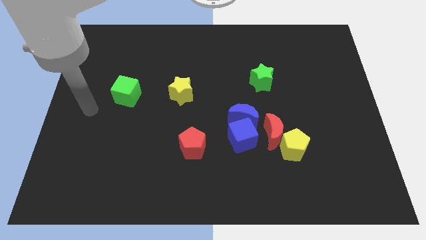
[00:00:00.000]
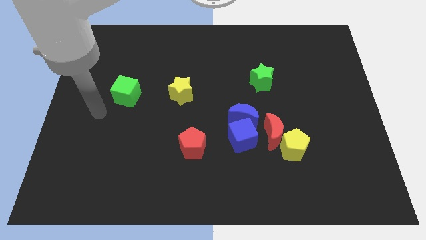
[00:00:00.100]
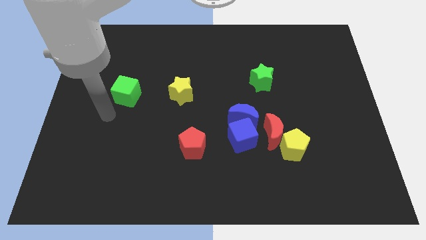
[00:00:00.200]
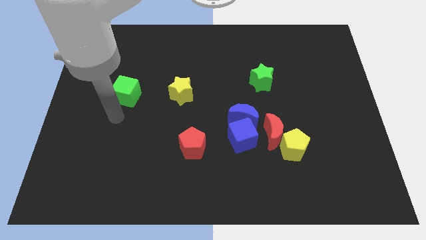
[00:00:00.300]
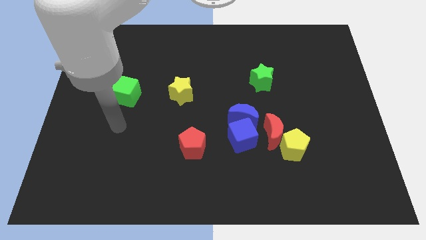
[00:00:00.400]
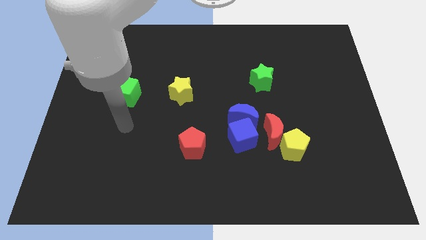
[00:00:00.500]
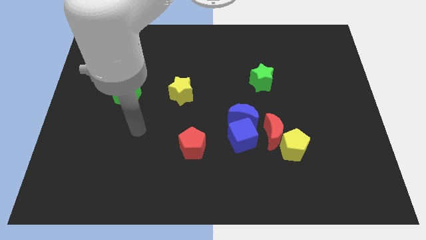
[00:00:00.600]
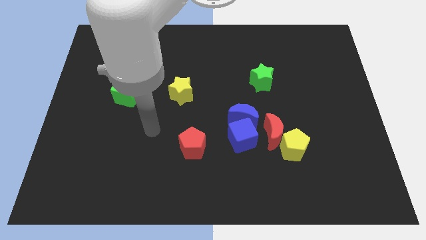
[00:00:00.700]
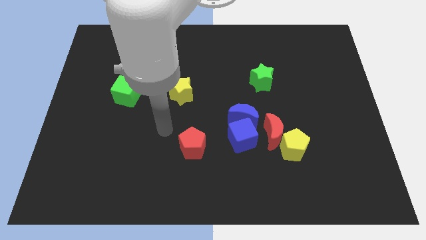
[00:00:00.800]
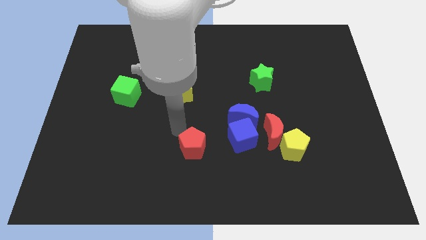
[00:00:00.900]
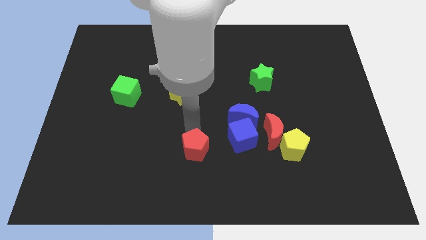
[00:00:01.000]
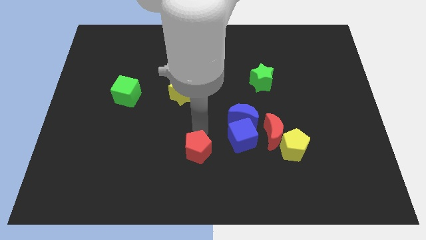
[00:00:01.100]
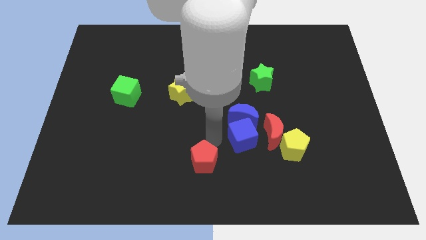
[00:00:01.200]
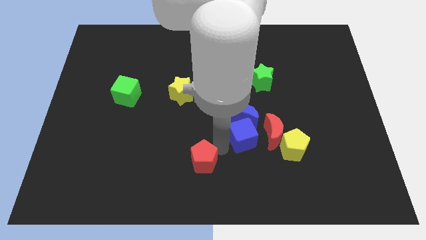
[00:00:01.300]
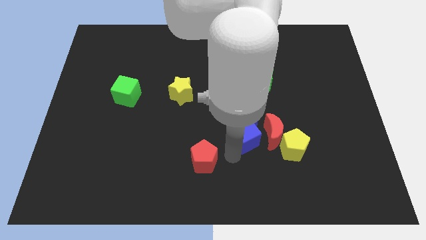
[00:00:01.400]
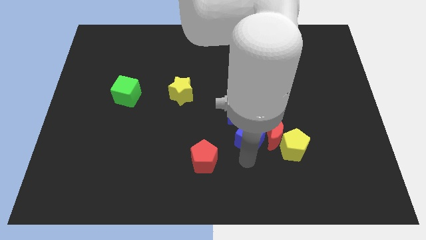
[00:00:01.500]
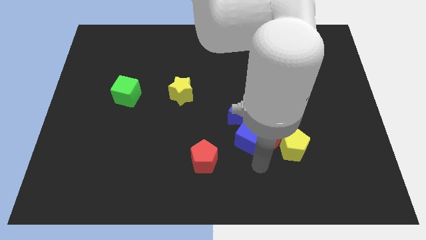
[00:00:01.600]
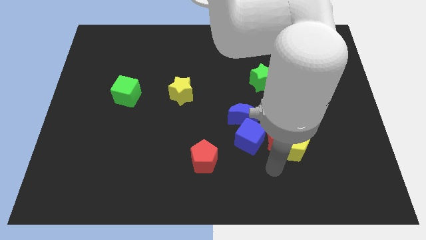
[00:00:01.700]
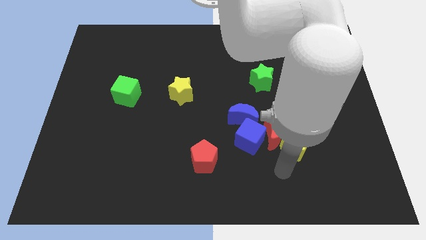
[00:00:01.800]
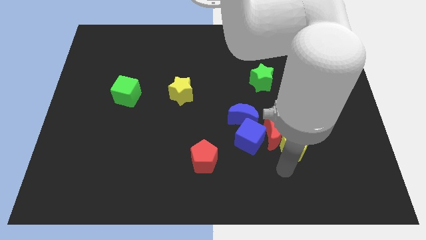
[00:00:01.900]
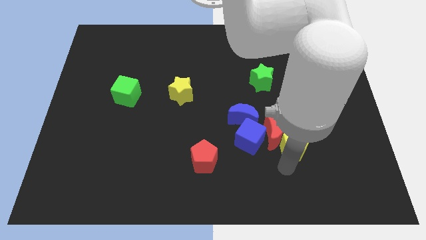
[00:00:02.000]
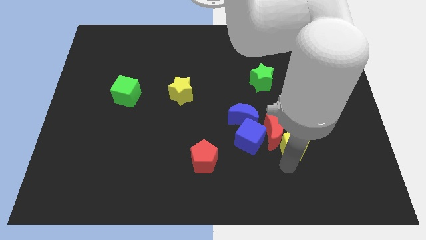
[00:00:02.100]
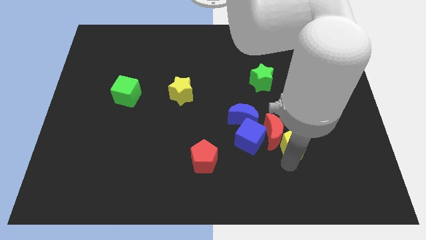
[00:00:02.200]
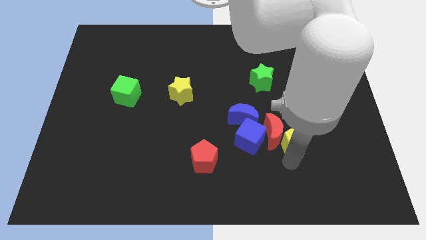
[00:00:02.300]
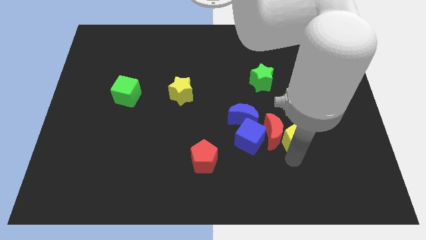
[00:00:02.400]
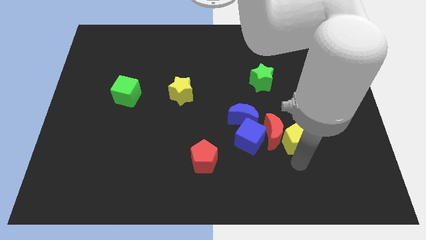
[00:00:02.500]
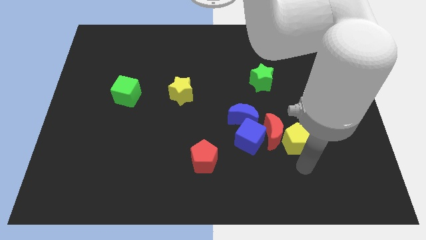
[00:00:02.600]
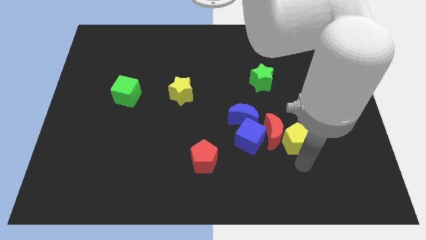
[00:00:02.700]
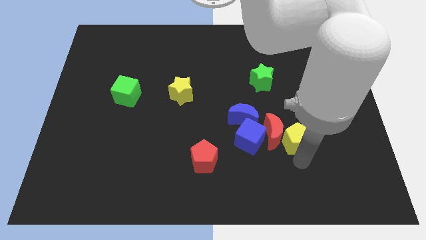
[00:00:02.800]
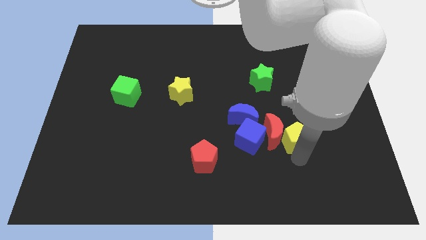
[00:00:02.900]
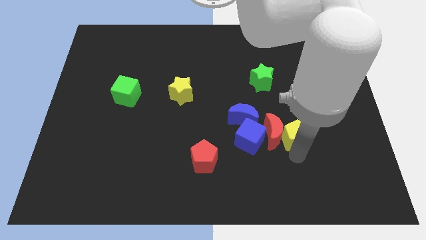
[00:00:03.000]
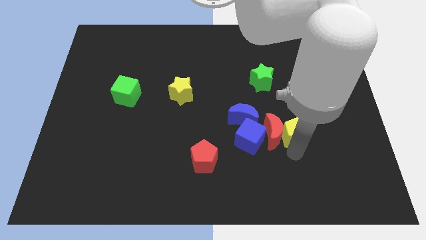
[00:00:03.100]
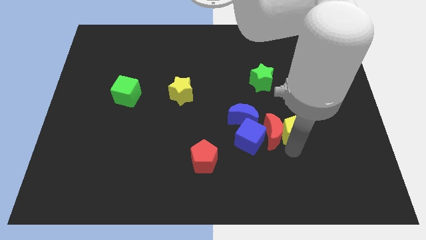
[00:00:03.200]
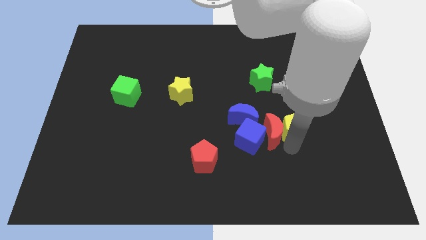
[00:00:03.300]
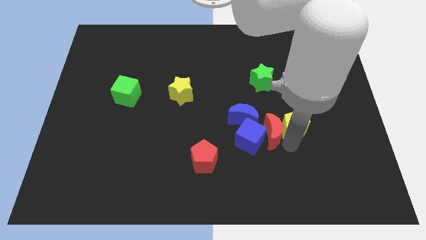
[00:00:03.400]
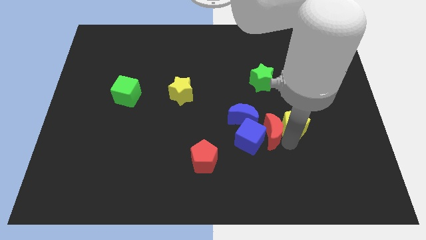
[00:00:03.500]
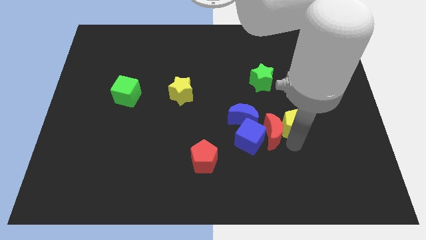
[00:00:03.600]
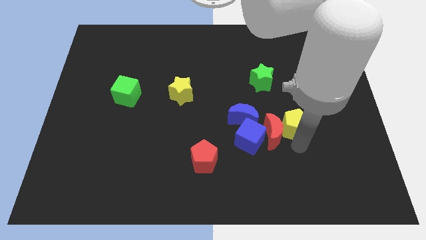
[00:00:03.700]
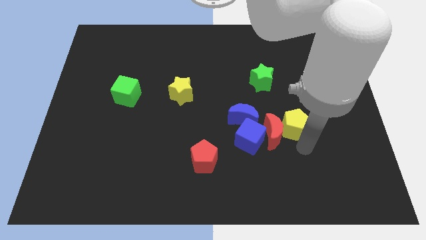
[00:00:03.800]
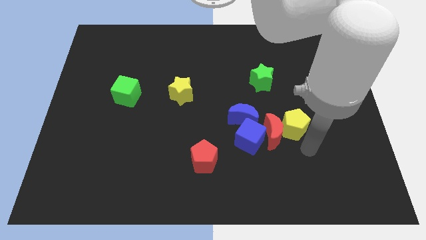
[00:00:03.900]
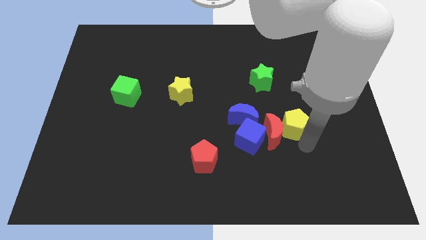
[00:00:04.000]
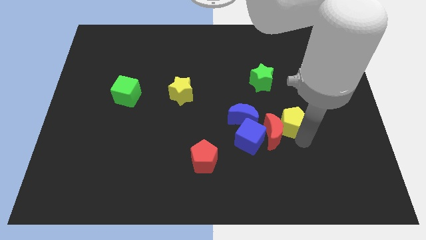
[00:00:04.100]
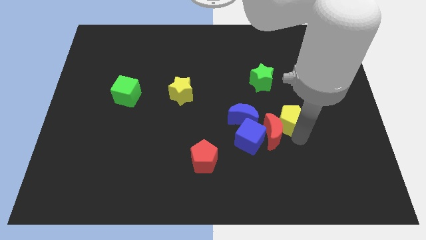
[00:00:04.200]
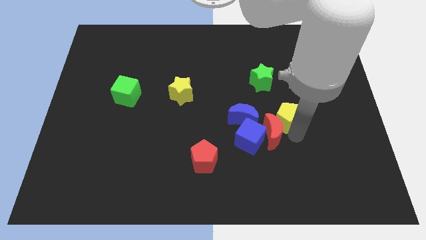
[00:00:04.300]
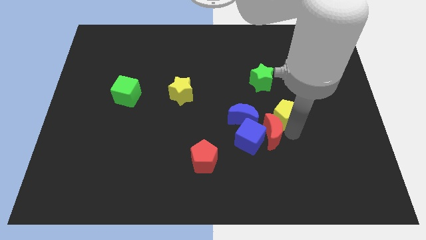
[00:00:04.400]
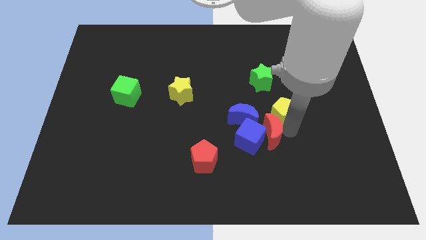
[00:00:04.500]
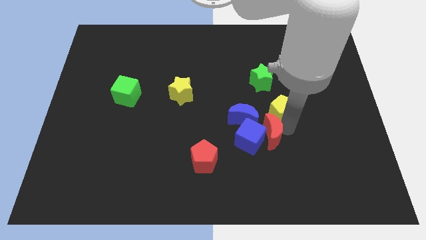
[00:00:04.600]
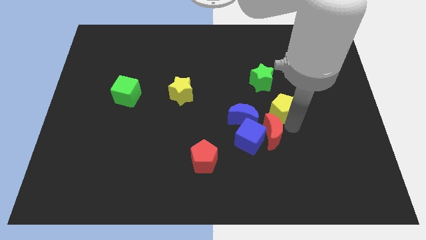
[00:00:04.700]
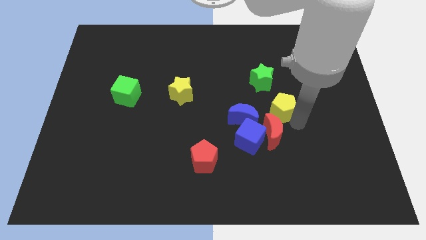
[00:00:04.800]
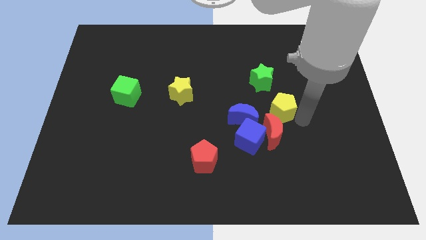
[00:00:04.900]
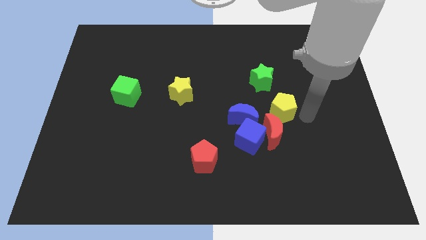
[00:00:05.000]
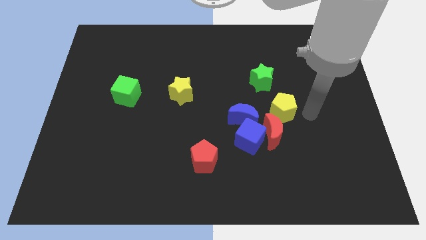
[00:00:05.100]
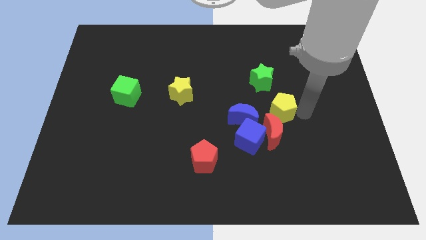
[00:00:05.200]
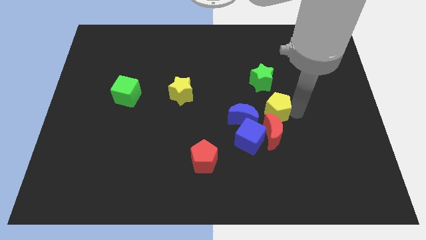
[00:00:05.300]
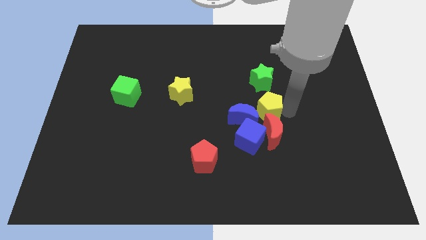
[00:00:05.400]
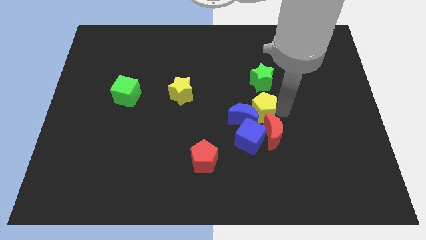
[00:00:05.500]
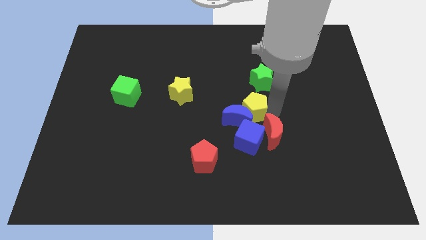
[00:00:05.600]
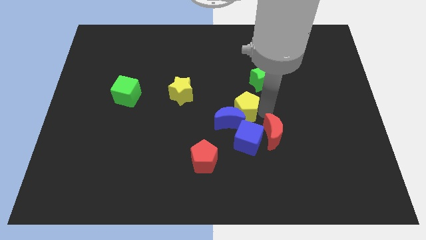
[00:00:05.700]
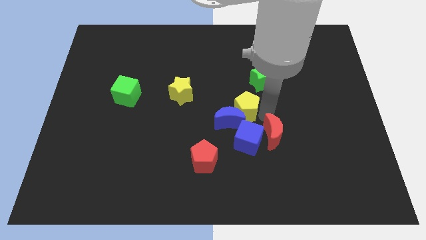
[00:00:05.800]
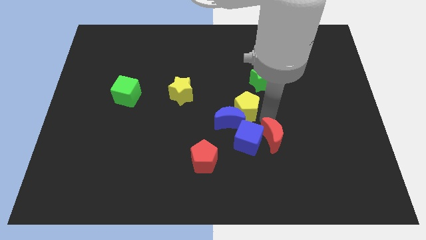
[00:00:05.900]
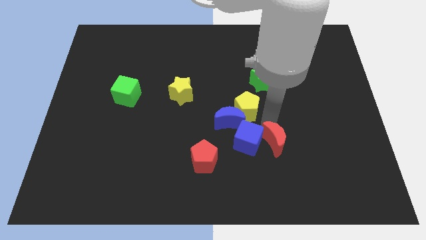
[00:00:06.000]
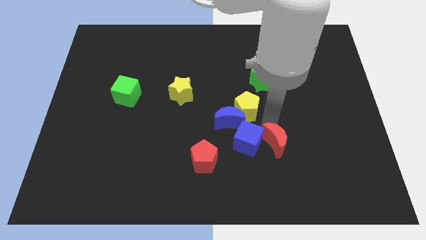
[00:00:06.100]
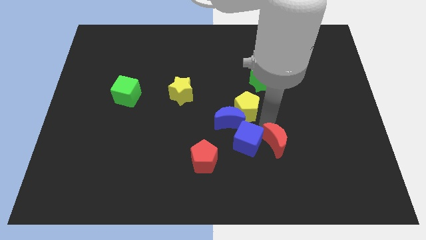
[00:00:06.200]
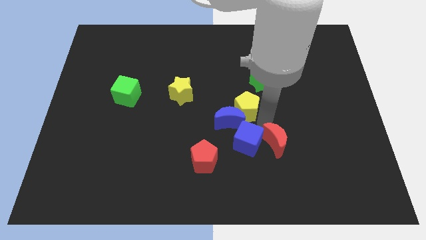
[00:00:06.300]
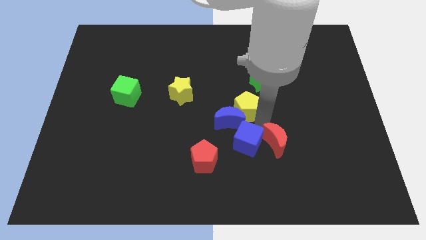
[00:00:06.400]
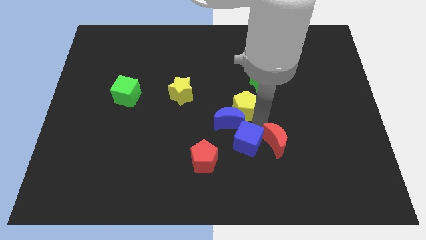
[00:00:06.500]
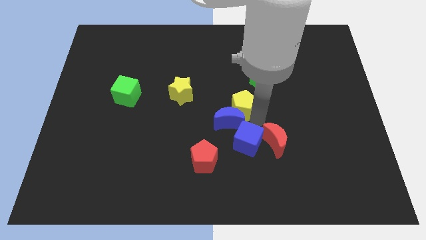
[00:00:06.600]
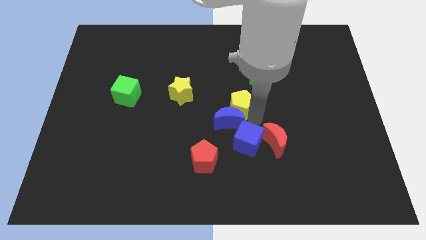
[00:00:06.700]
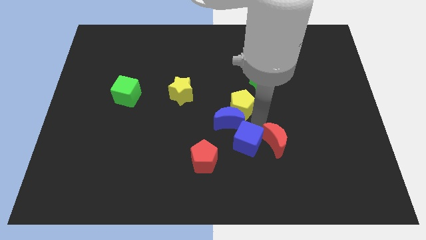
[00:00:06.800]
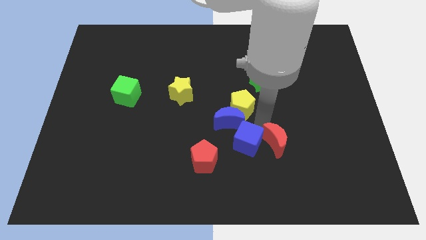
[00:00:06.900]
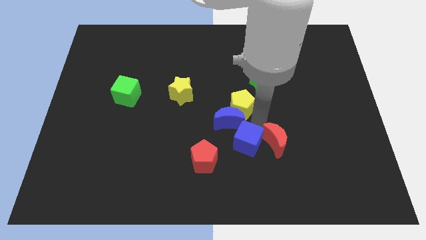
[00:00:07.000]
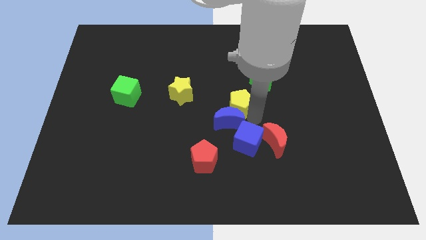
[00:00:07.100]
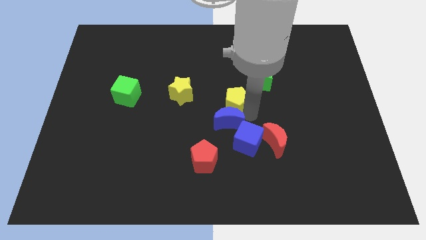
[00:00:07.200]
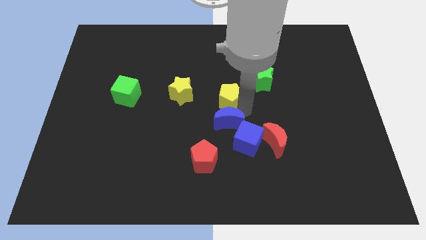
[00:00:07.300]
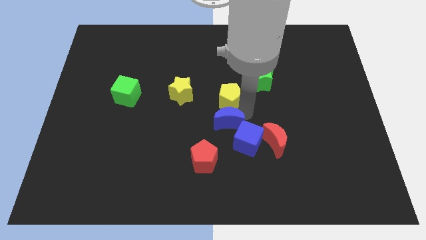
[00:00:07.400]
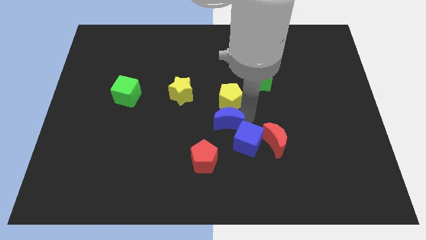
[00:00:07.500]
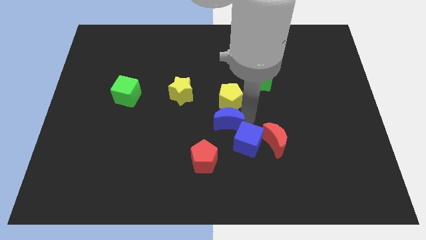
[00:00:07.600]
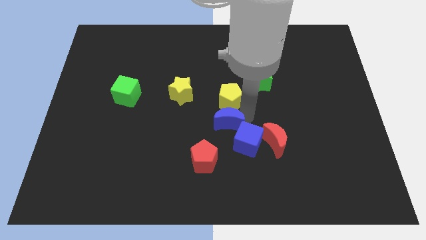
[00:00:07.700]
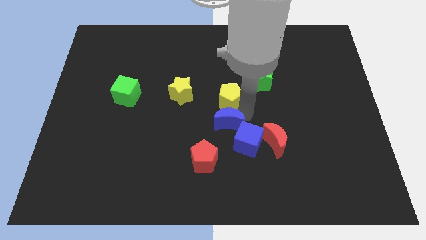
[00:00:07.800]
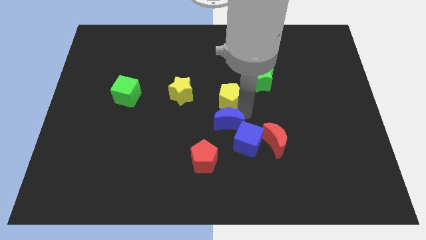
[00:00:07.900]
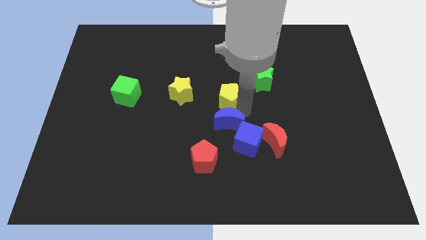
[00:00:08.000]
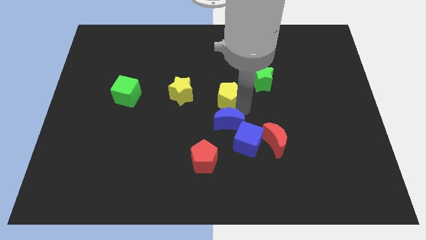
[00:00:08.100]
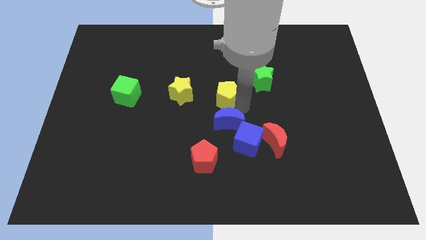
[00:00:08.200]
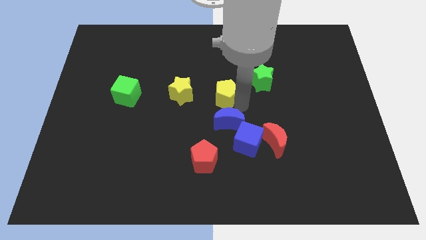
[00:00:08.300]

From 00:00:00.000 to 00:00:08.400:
push the yellow pentagon diagonally up and to the left
